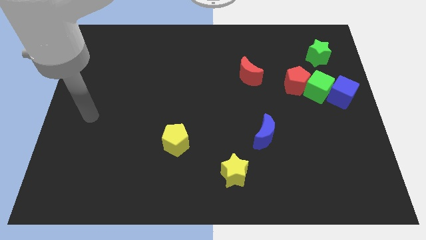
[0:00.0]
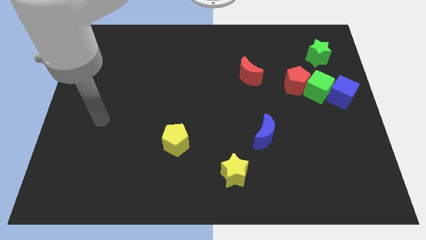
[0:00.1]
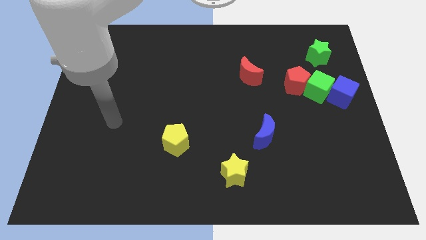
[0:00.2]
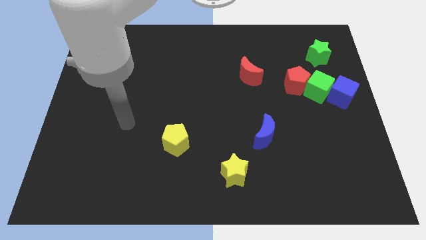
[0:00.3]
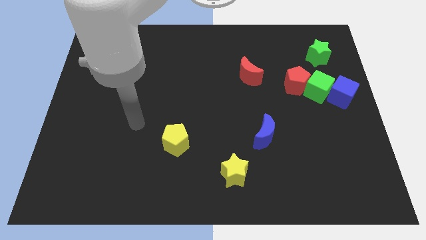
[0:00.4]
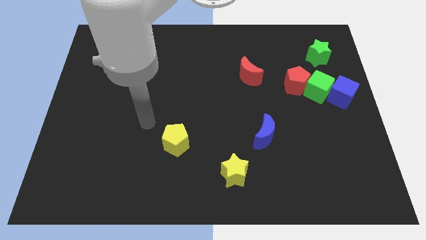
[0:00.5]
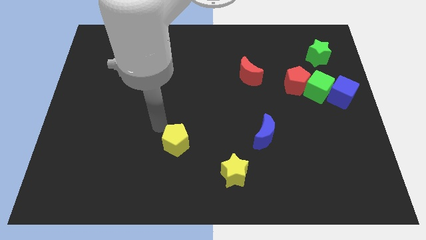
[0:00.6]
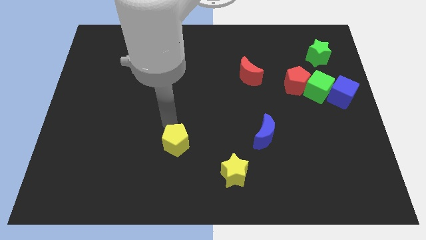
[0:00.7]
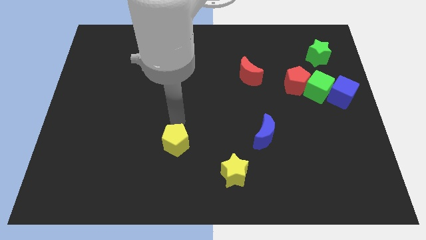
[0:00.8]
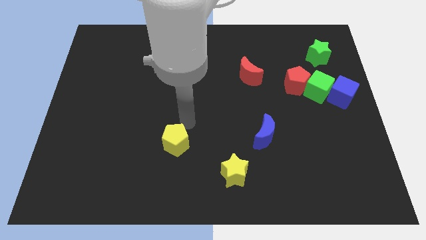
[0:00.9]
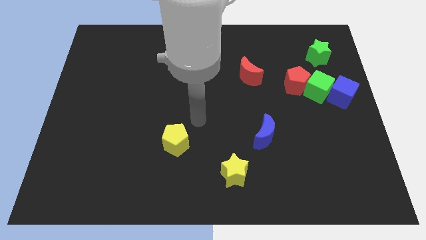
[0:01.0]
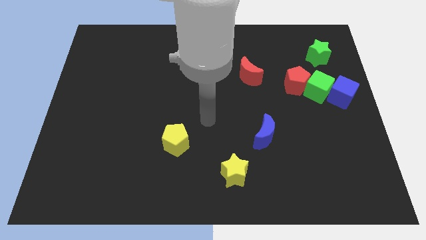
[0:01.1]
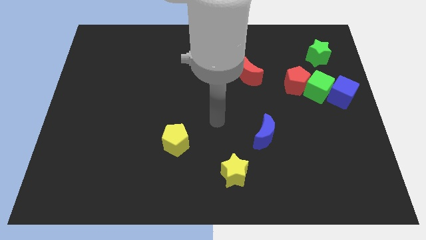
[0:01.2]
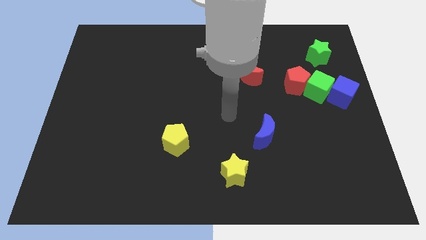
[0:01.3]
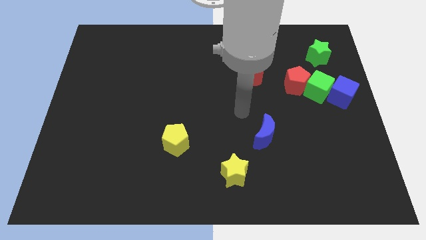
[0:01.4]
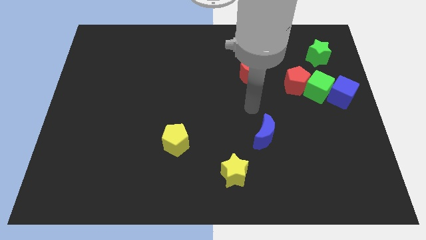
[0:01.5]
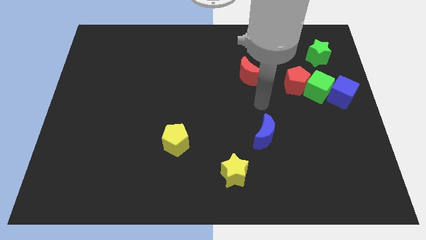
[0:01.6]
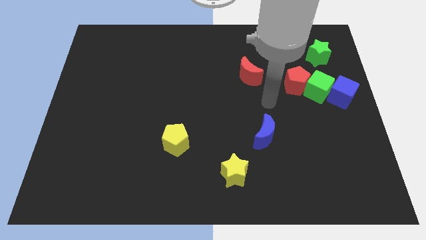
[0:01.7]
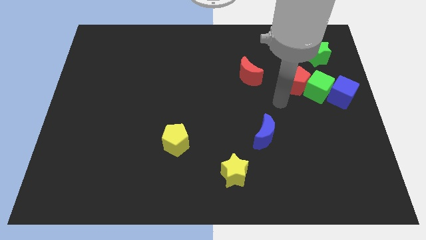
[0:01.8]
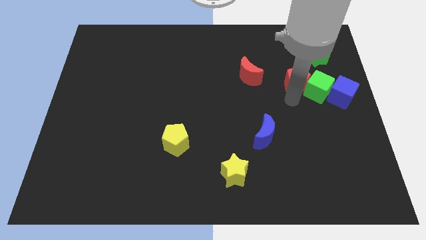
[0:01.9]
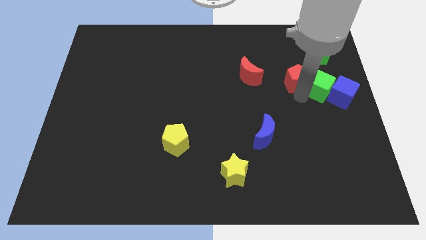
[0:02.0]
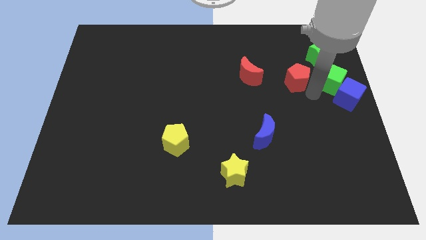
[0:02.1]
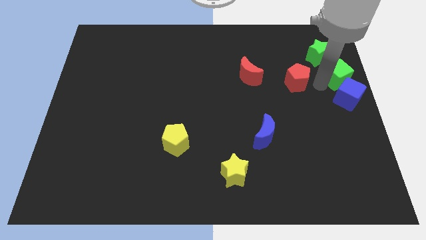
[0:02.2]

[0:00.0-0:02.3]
pull the red pentagon apart from the green cube

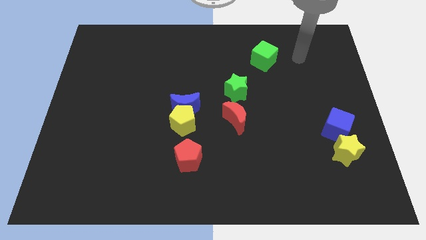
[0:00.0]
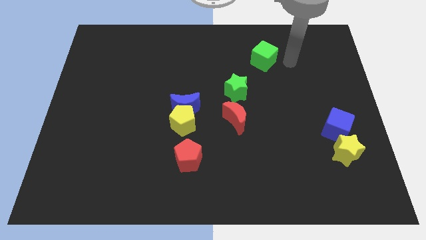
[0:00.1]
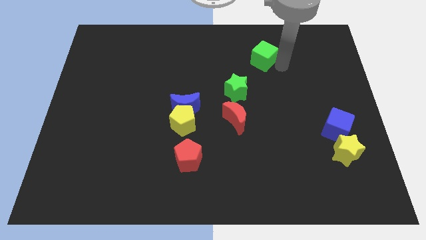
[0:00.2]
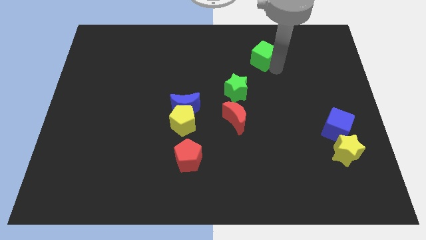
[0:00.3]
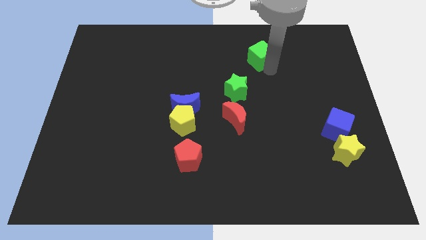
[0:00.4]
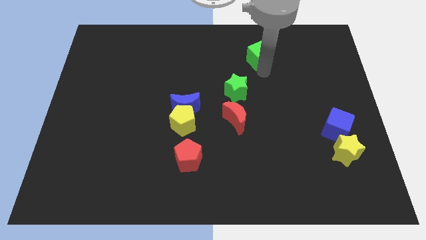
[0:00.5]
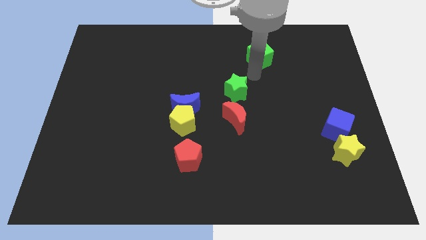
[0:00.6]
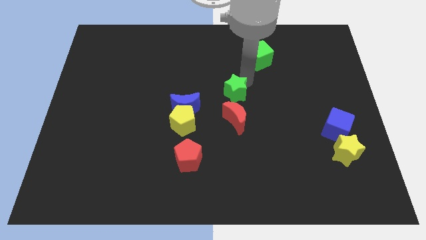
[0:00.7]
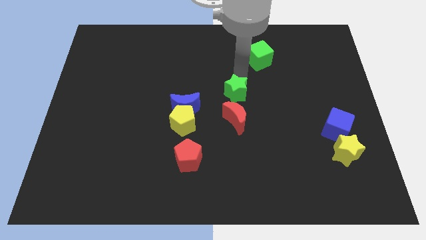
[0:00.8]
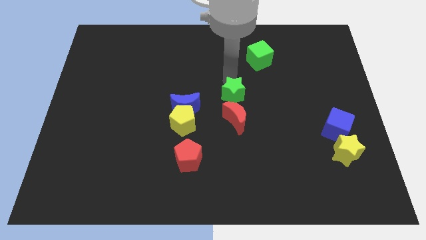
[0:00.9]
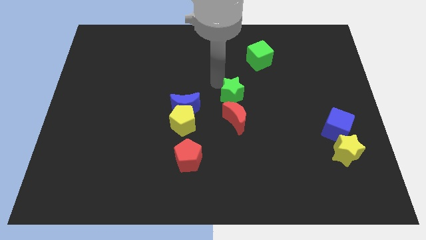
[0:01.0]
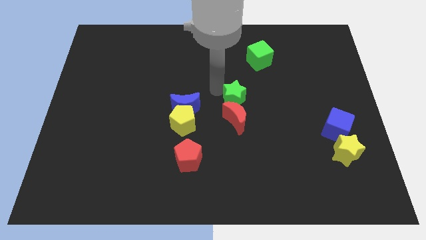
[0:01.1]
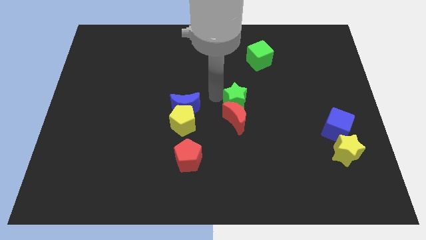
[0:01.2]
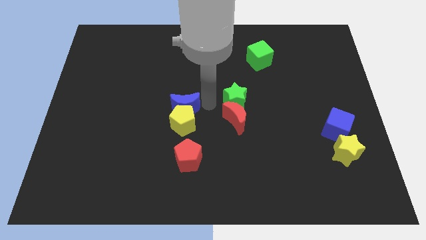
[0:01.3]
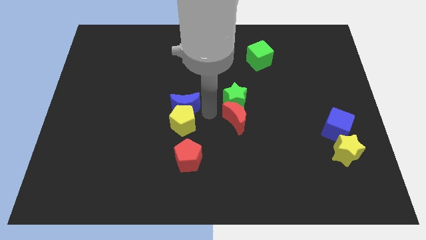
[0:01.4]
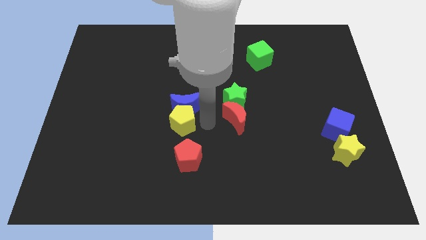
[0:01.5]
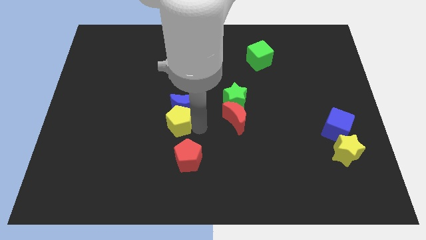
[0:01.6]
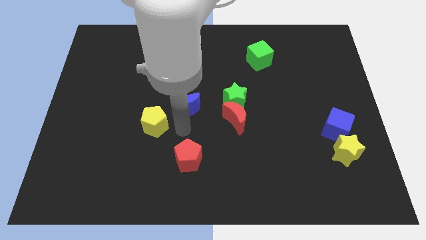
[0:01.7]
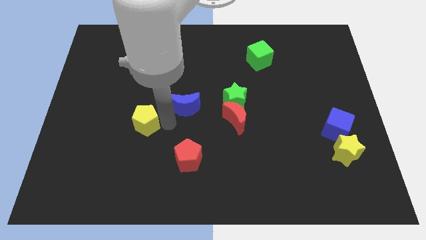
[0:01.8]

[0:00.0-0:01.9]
move the blue moon away from the yellow pentagon

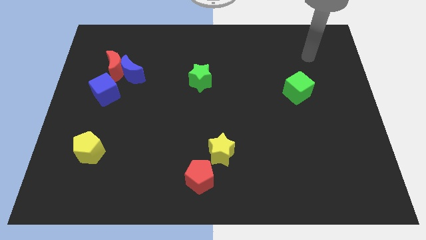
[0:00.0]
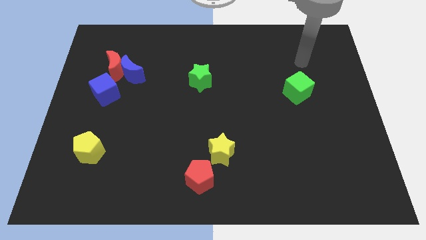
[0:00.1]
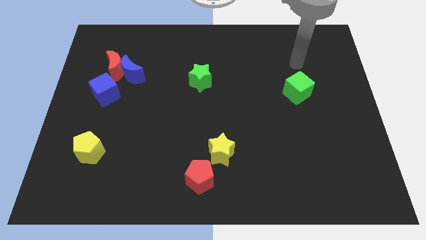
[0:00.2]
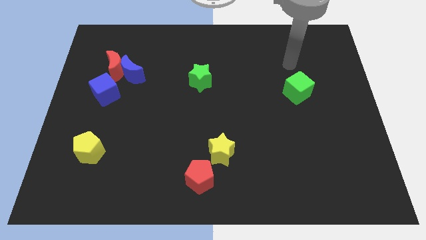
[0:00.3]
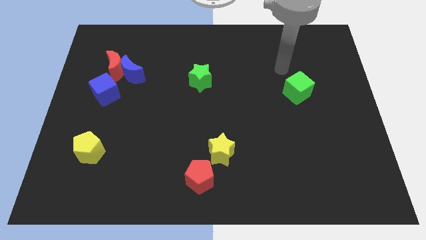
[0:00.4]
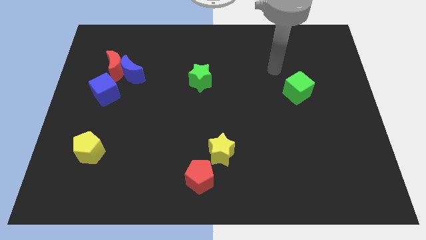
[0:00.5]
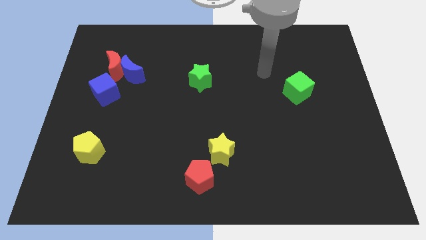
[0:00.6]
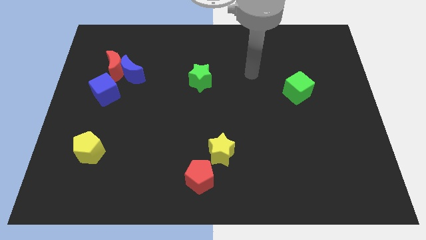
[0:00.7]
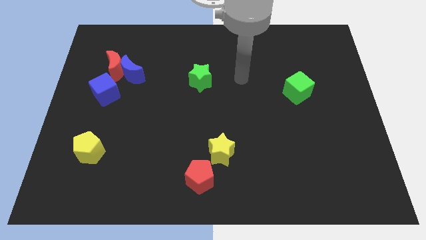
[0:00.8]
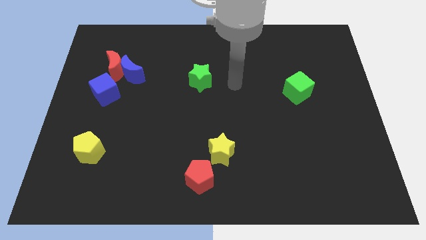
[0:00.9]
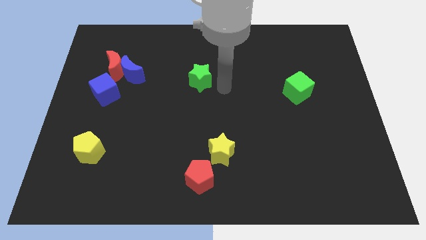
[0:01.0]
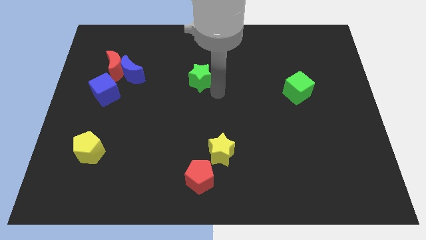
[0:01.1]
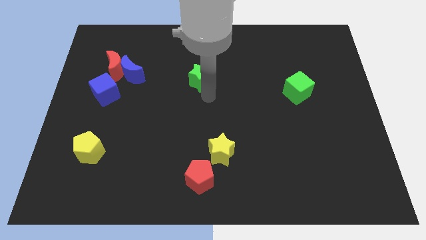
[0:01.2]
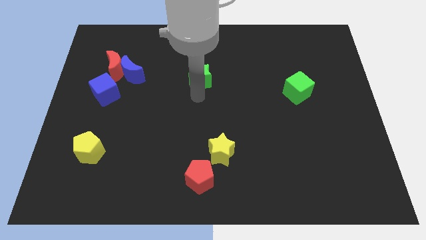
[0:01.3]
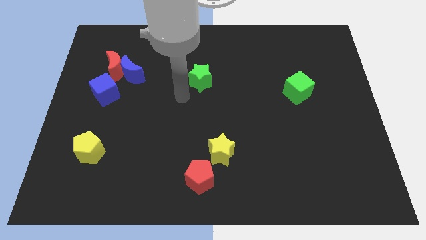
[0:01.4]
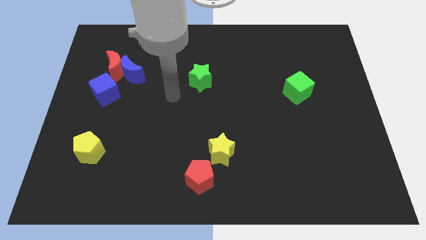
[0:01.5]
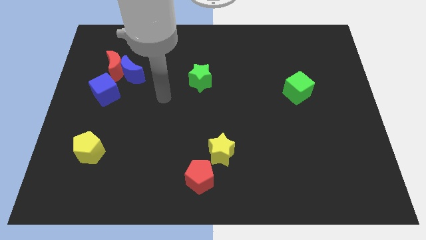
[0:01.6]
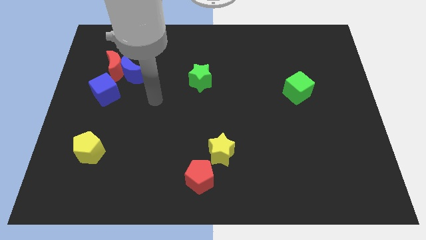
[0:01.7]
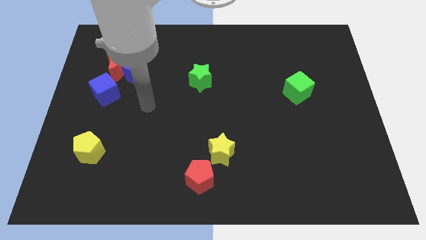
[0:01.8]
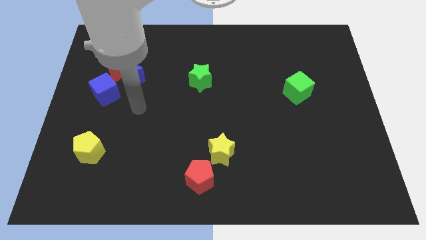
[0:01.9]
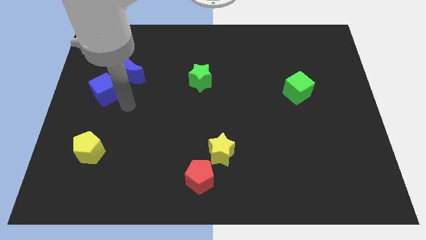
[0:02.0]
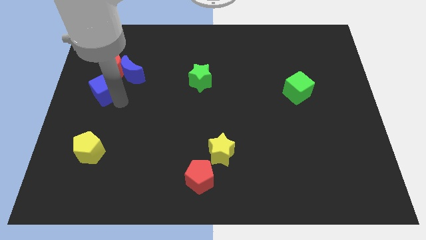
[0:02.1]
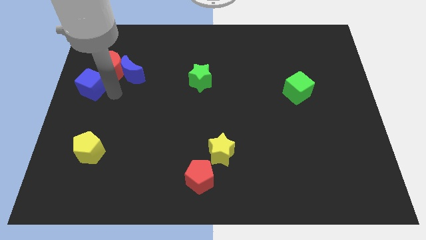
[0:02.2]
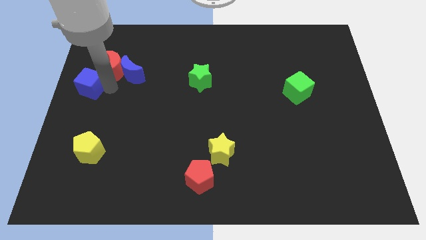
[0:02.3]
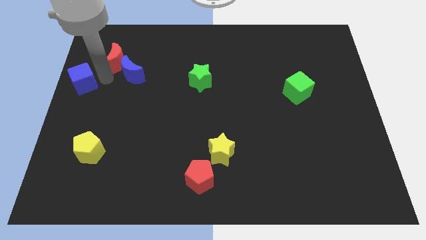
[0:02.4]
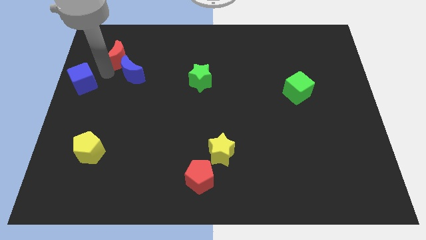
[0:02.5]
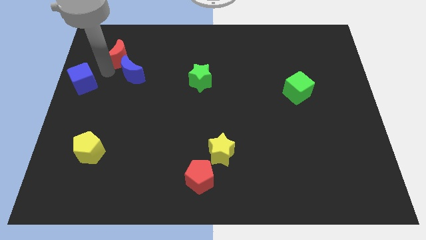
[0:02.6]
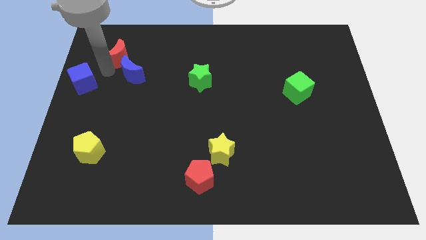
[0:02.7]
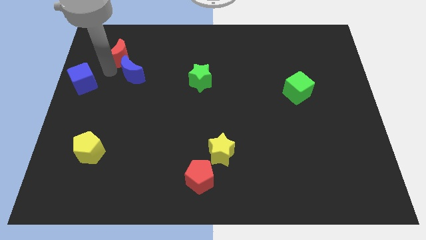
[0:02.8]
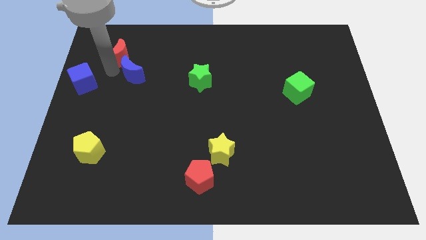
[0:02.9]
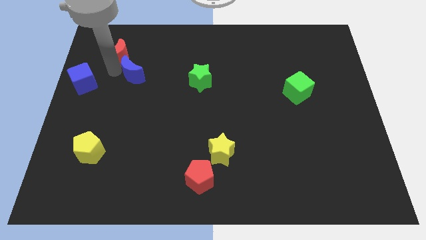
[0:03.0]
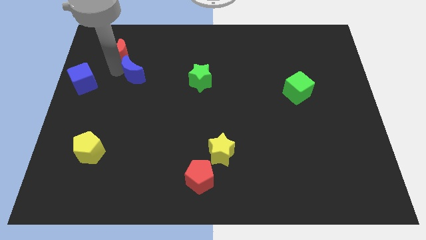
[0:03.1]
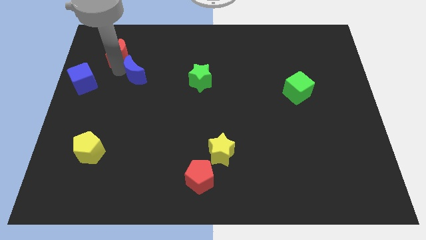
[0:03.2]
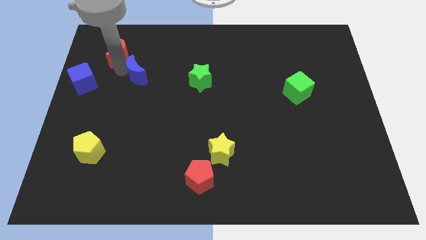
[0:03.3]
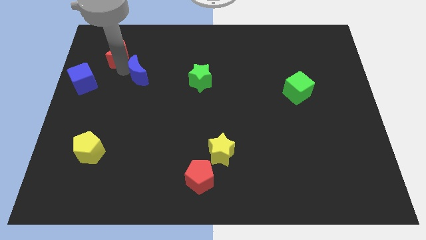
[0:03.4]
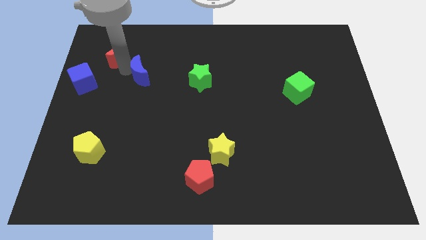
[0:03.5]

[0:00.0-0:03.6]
separate the blue moon from the red moon and blue cube

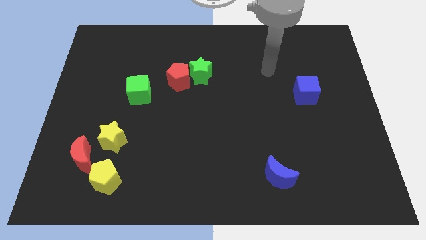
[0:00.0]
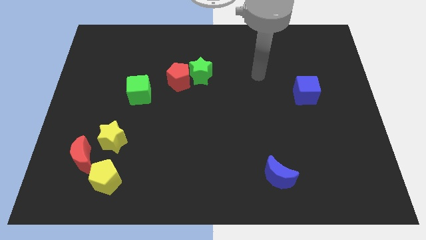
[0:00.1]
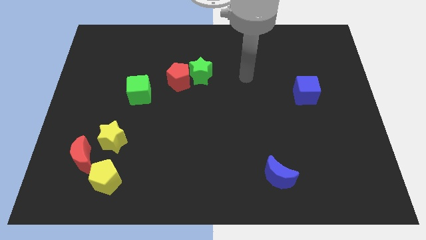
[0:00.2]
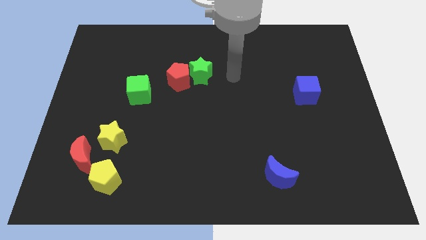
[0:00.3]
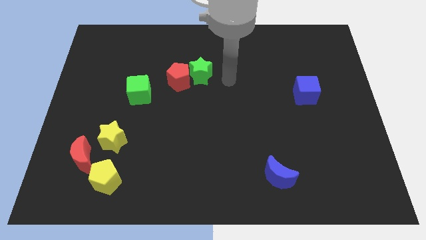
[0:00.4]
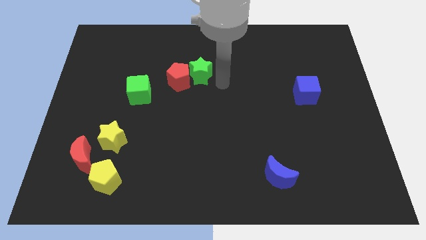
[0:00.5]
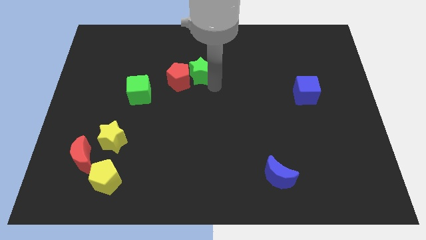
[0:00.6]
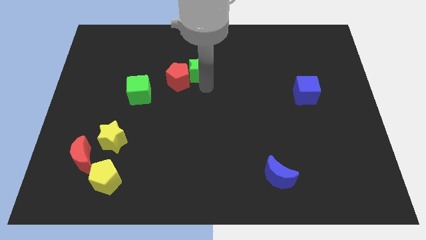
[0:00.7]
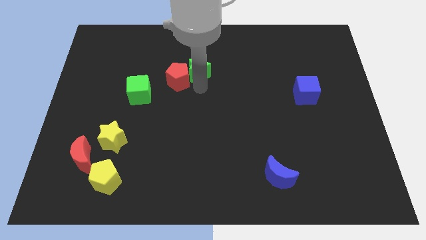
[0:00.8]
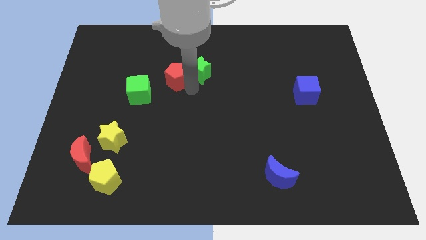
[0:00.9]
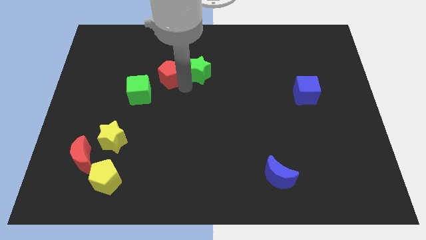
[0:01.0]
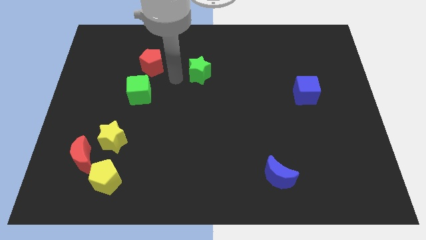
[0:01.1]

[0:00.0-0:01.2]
pull the green star apart from the red pentagon

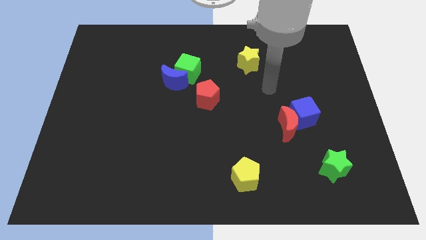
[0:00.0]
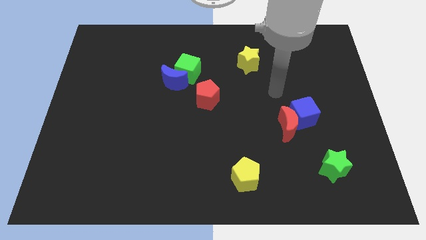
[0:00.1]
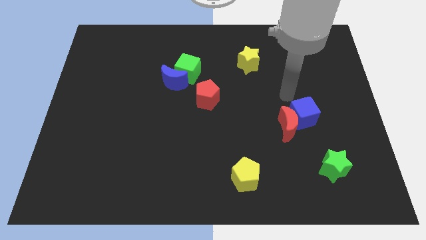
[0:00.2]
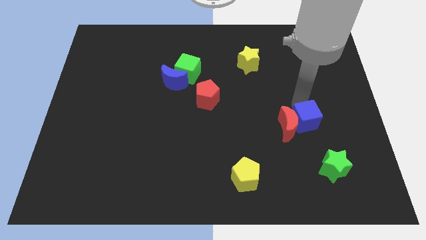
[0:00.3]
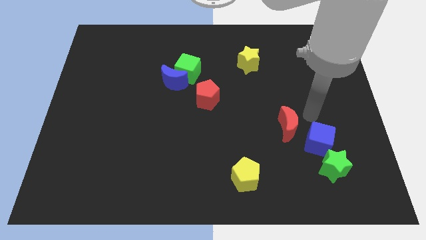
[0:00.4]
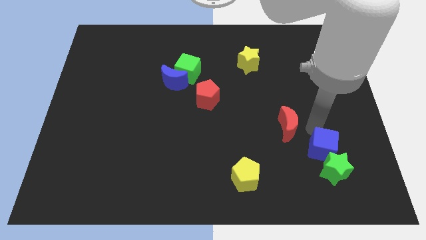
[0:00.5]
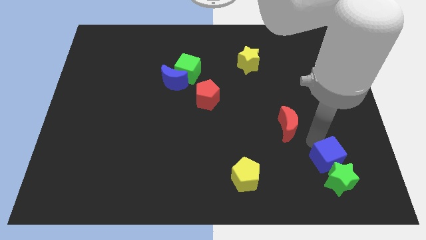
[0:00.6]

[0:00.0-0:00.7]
pull the red moon apart from the blue cube
